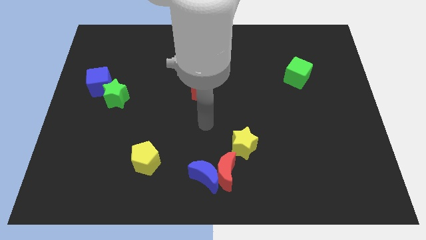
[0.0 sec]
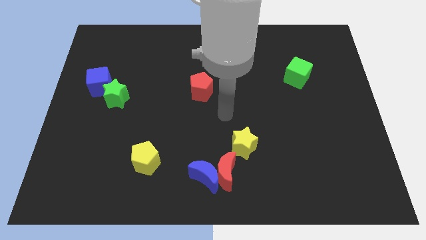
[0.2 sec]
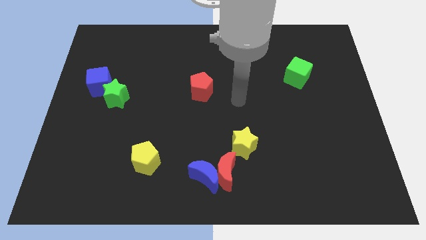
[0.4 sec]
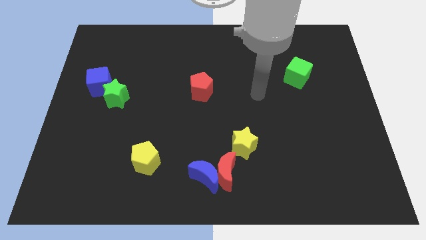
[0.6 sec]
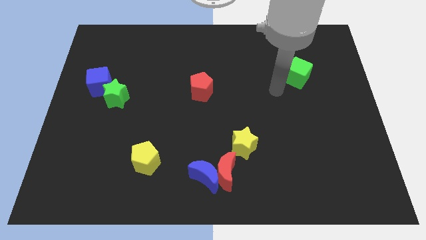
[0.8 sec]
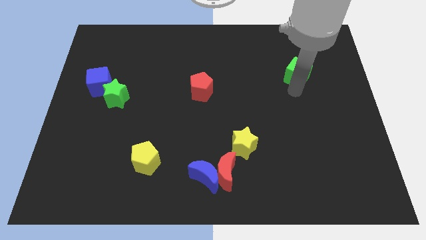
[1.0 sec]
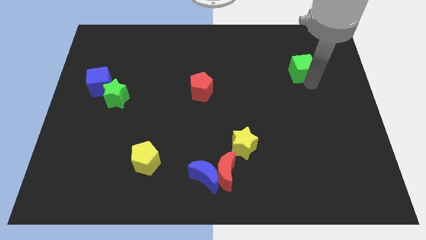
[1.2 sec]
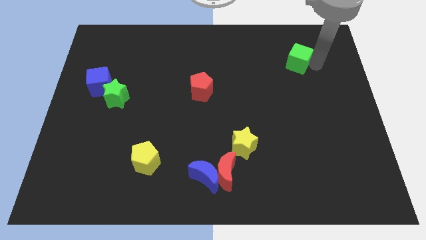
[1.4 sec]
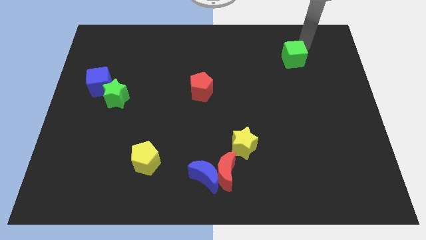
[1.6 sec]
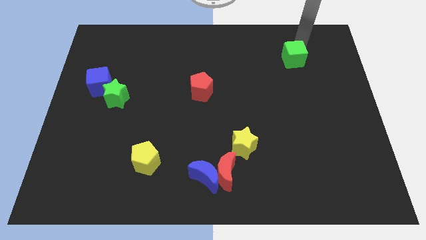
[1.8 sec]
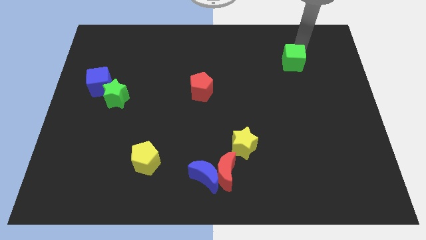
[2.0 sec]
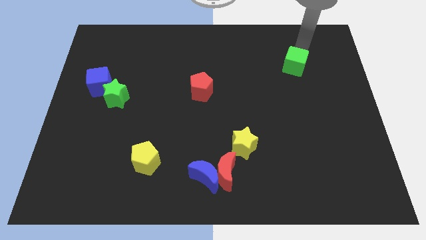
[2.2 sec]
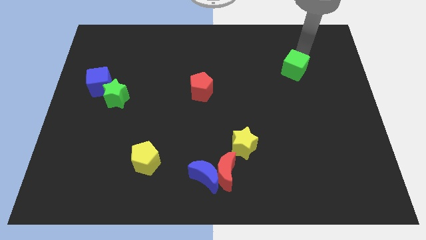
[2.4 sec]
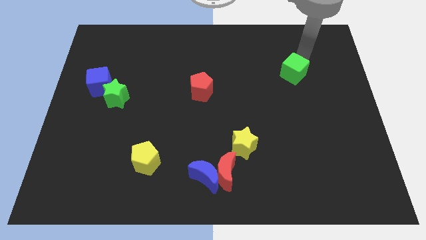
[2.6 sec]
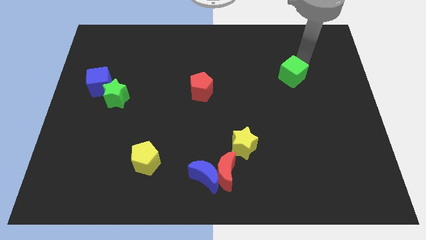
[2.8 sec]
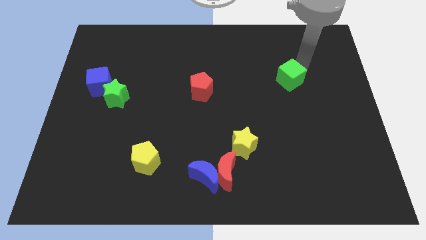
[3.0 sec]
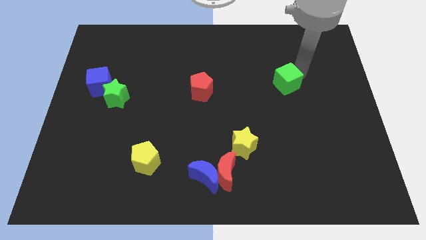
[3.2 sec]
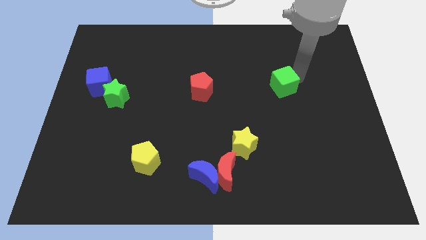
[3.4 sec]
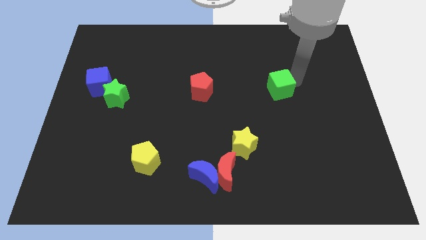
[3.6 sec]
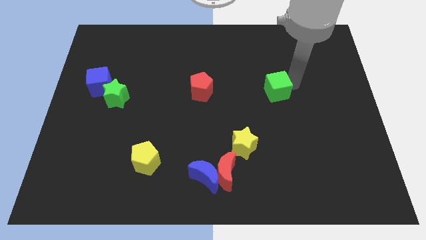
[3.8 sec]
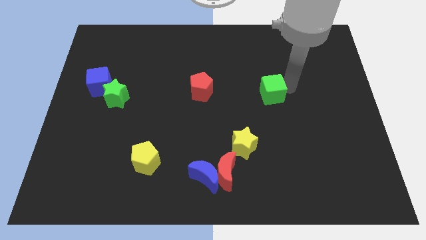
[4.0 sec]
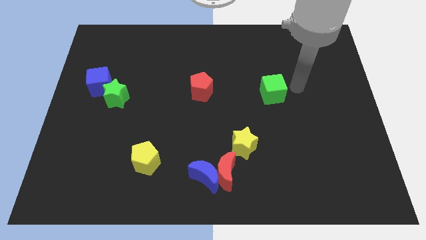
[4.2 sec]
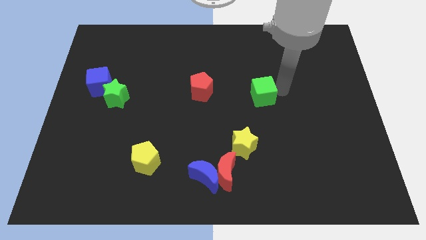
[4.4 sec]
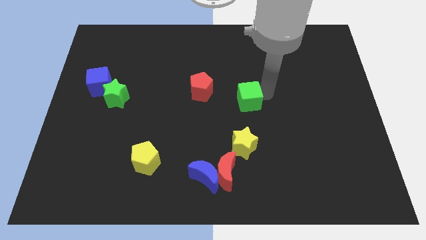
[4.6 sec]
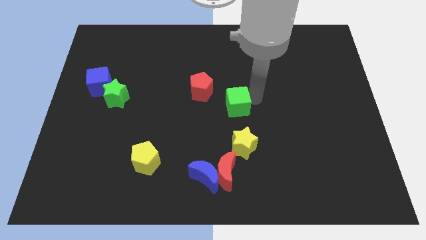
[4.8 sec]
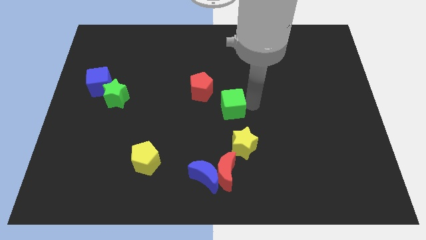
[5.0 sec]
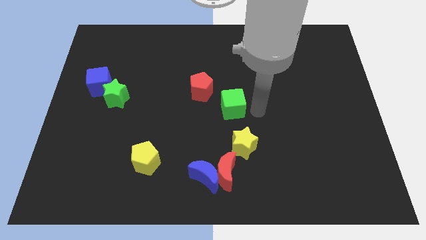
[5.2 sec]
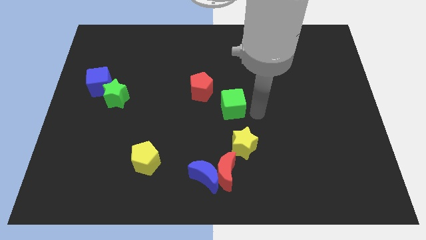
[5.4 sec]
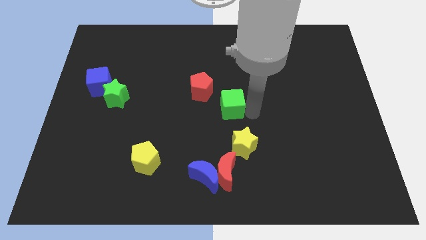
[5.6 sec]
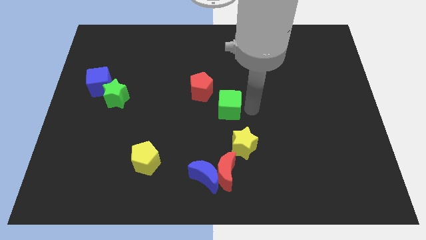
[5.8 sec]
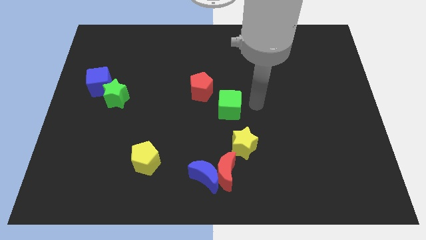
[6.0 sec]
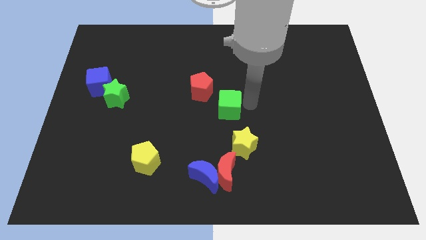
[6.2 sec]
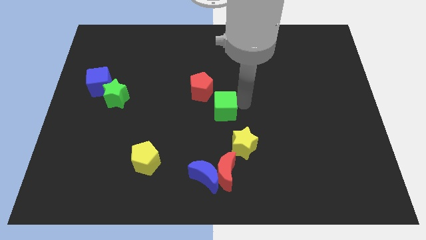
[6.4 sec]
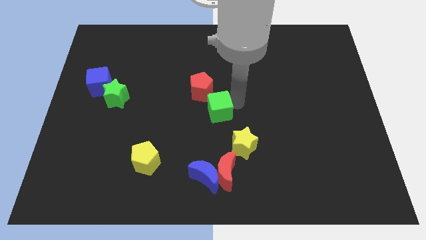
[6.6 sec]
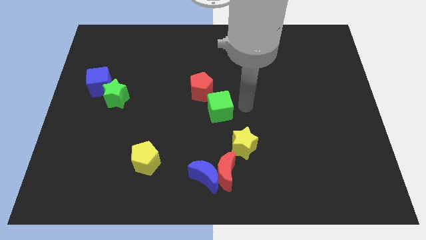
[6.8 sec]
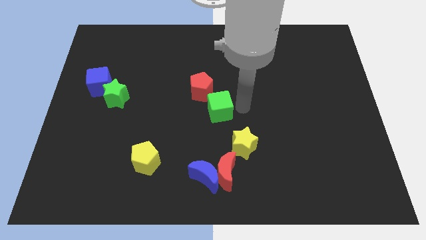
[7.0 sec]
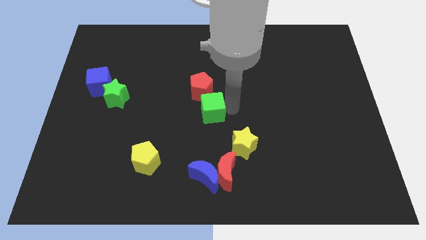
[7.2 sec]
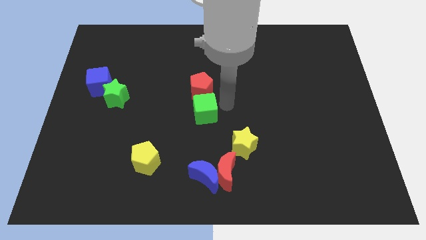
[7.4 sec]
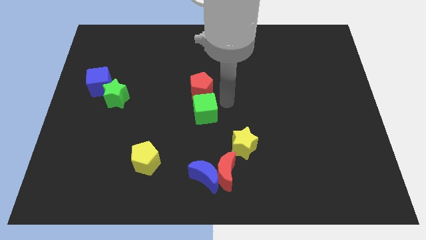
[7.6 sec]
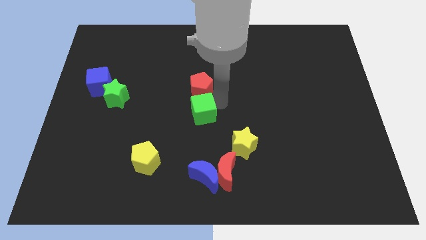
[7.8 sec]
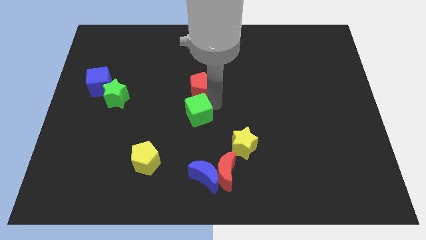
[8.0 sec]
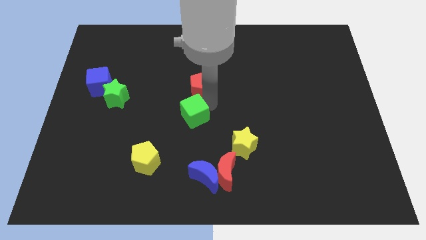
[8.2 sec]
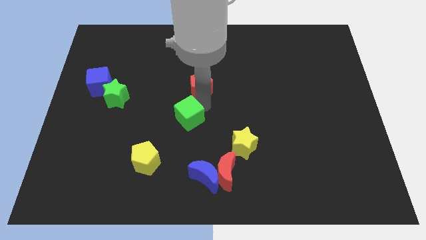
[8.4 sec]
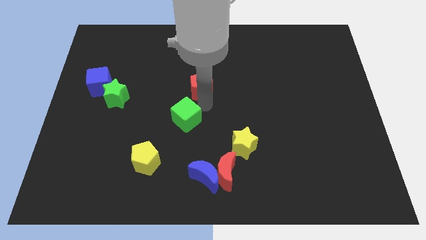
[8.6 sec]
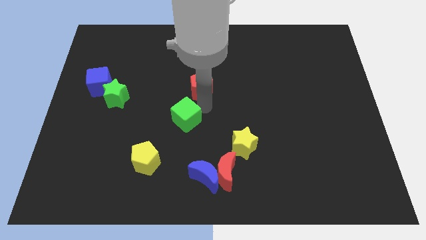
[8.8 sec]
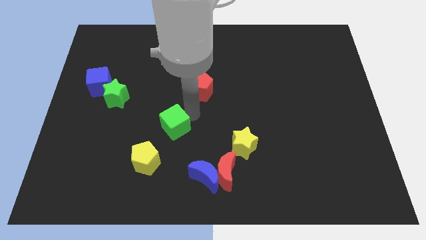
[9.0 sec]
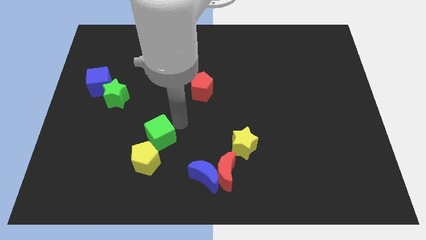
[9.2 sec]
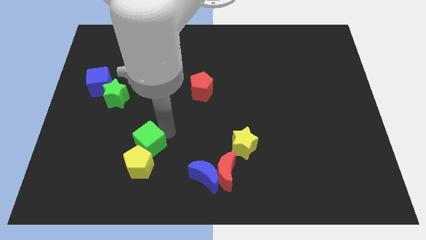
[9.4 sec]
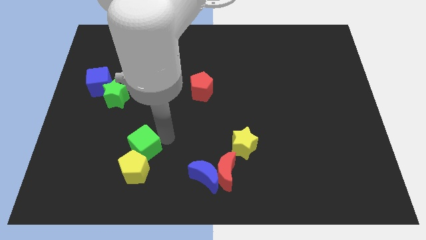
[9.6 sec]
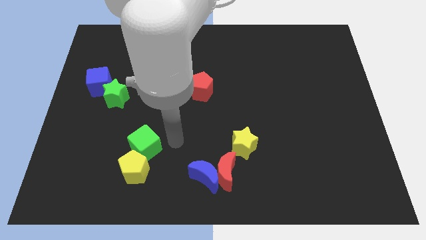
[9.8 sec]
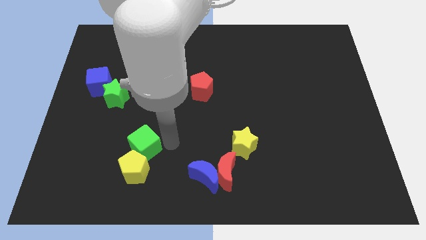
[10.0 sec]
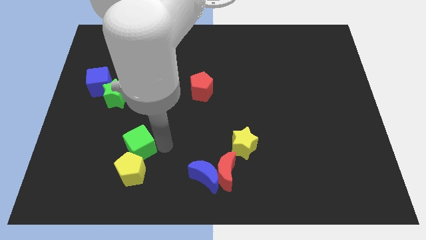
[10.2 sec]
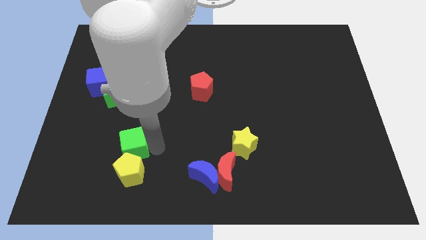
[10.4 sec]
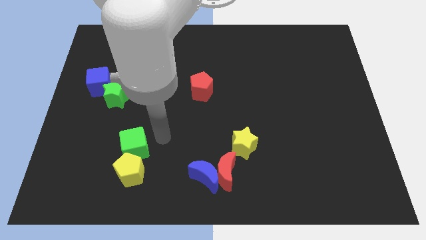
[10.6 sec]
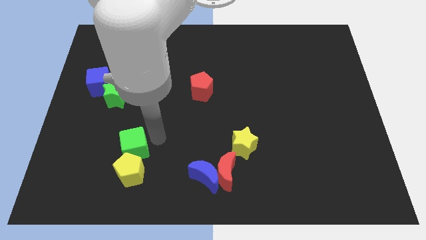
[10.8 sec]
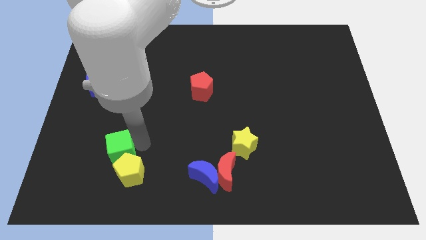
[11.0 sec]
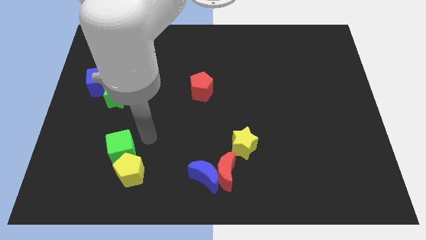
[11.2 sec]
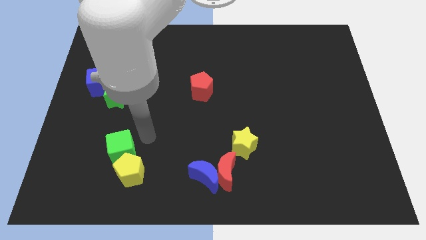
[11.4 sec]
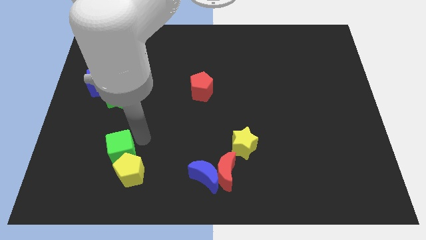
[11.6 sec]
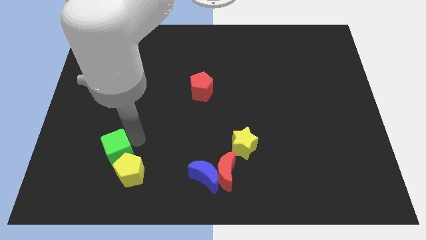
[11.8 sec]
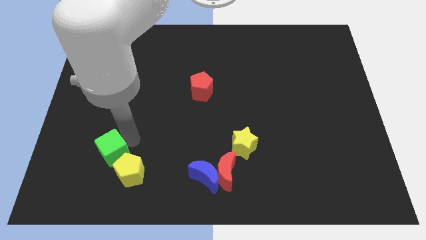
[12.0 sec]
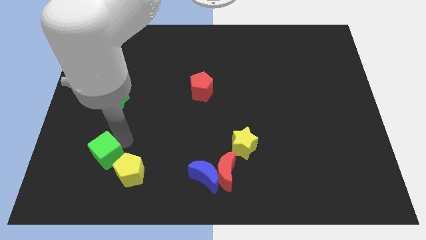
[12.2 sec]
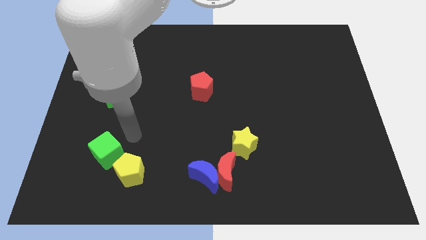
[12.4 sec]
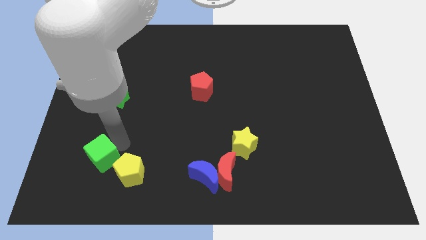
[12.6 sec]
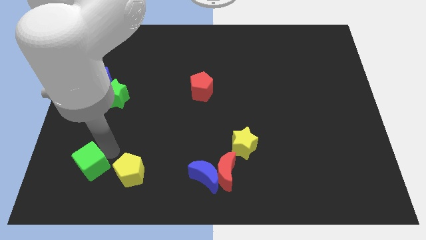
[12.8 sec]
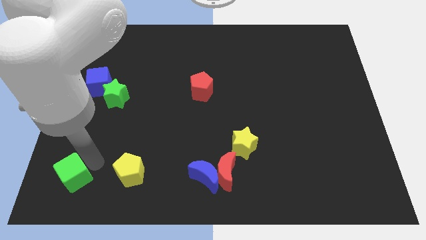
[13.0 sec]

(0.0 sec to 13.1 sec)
slide the green cube to the lower left corner
